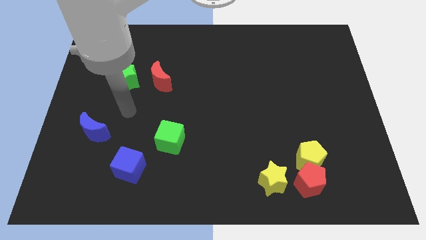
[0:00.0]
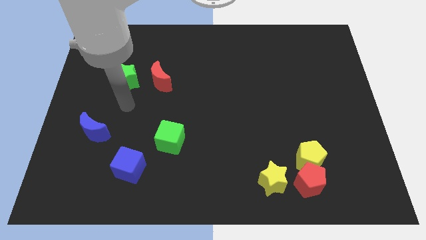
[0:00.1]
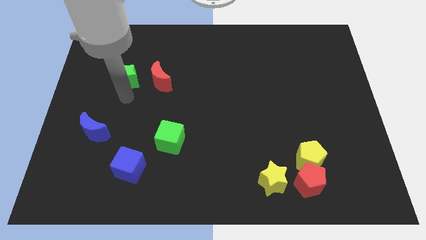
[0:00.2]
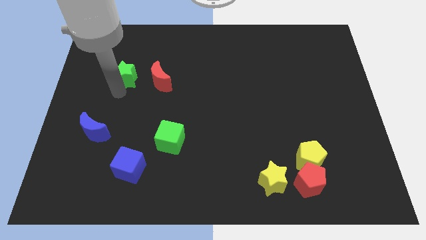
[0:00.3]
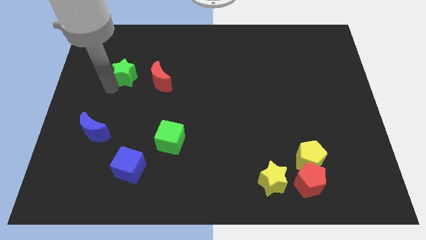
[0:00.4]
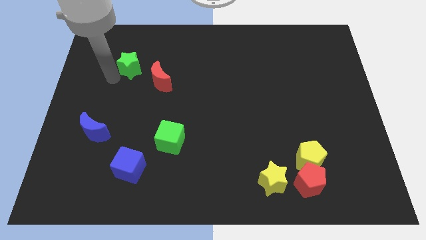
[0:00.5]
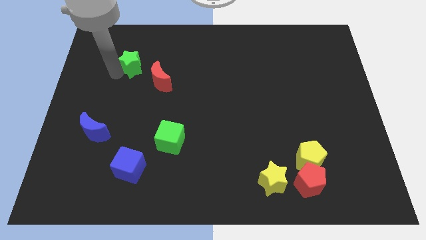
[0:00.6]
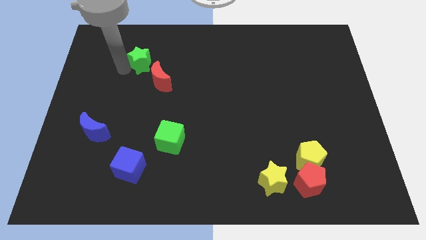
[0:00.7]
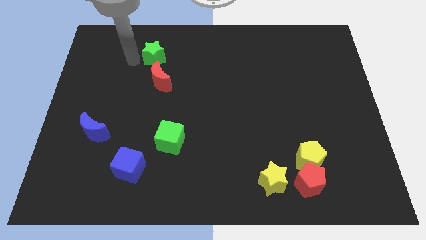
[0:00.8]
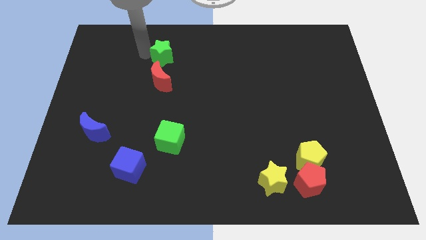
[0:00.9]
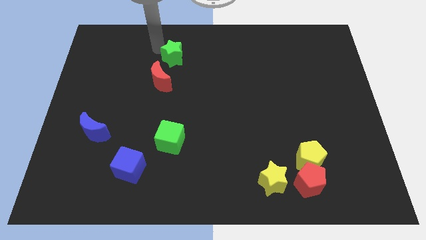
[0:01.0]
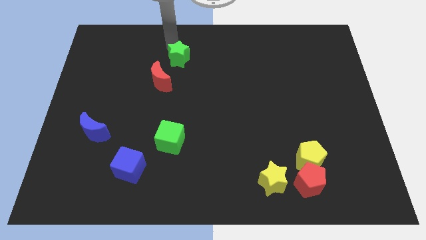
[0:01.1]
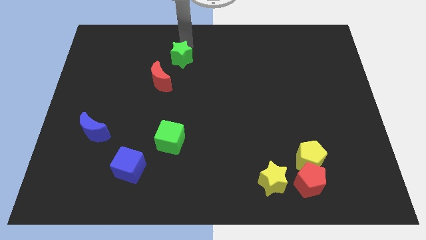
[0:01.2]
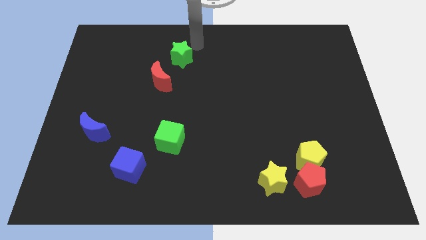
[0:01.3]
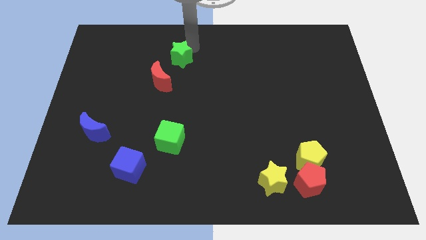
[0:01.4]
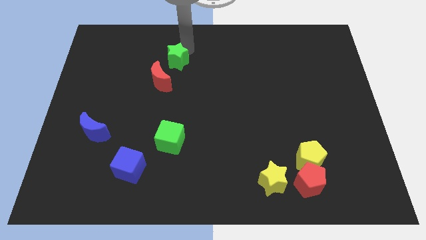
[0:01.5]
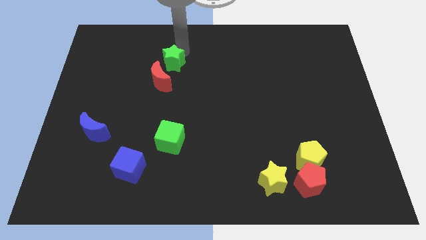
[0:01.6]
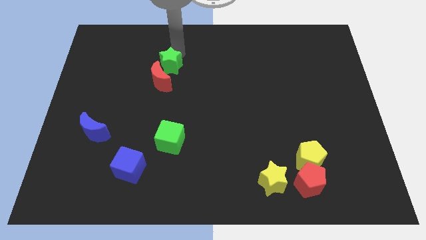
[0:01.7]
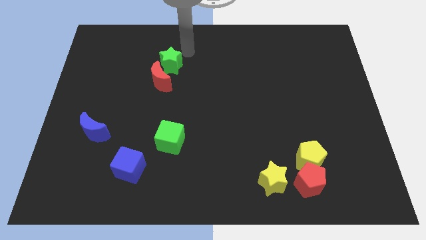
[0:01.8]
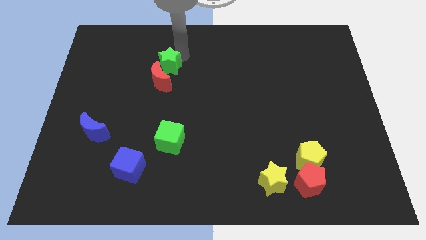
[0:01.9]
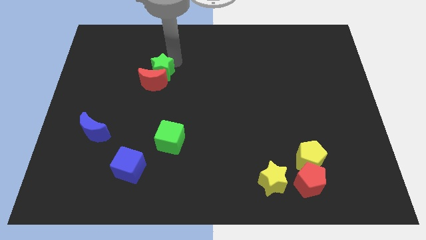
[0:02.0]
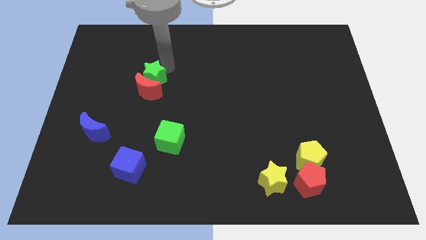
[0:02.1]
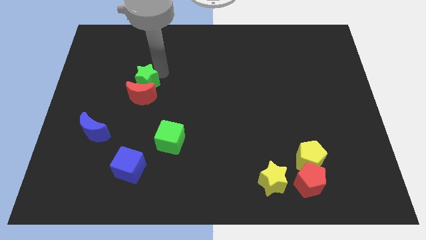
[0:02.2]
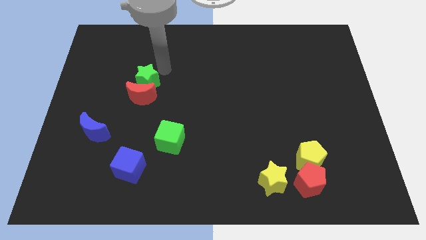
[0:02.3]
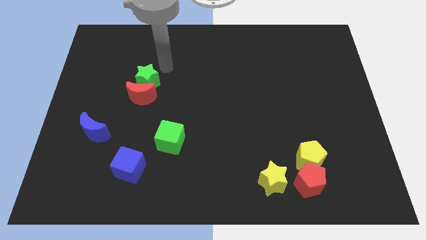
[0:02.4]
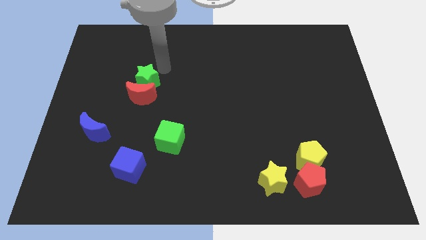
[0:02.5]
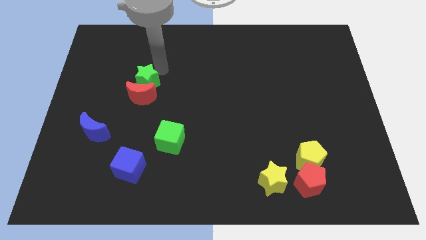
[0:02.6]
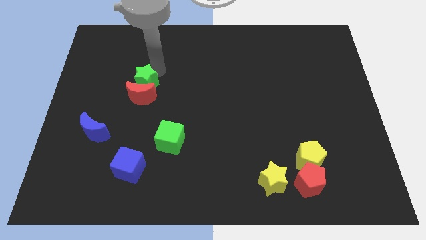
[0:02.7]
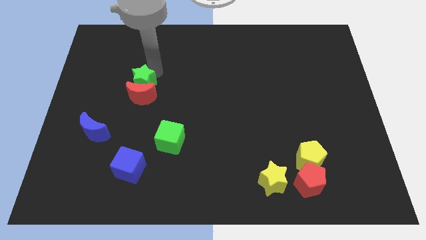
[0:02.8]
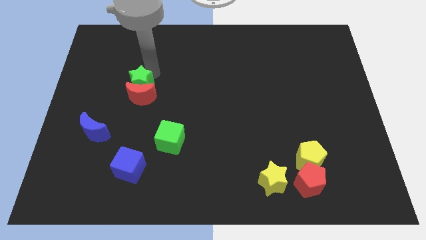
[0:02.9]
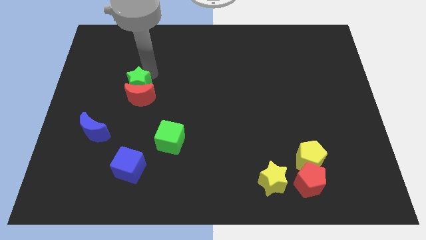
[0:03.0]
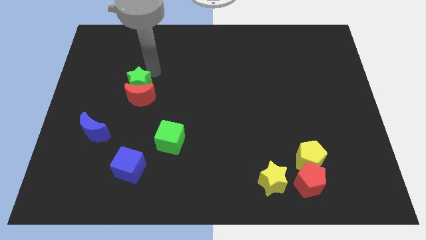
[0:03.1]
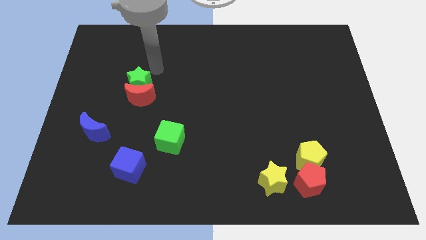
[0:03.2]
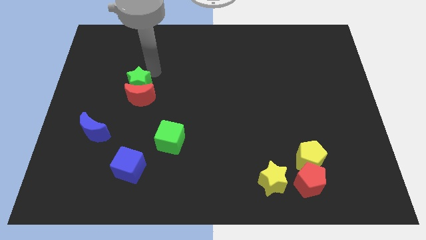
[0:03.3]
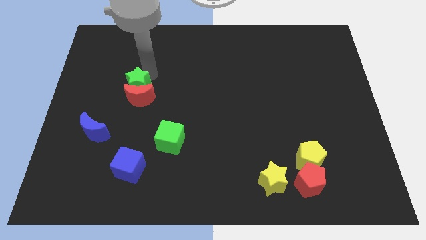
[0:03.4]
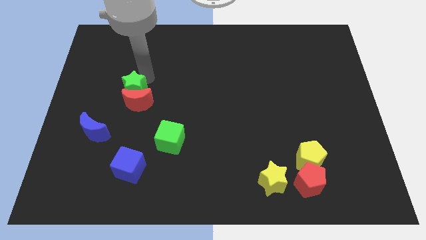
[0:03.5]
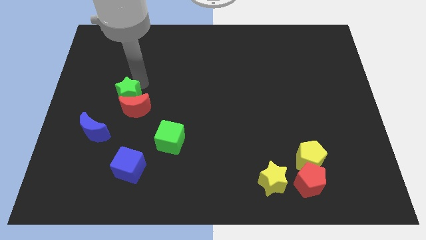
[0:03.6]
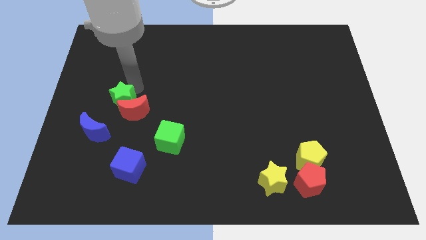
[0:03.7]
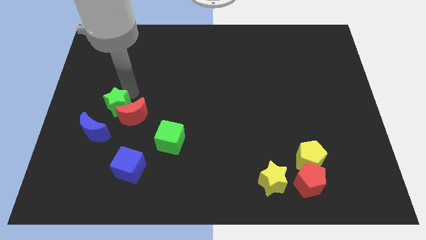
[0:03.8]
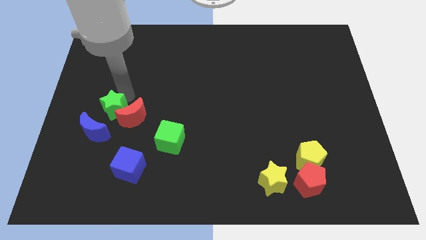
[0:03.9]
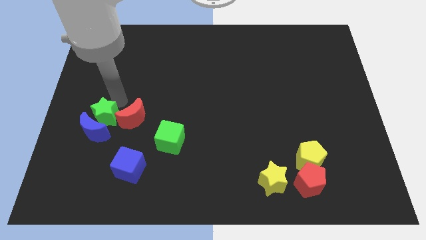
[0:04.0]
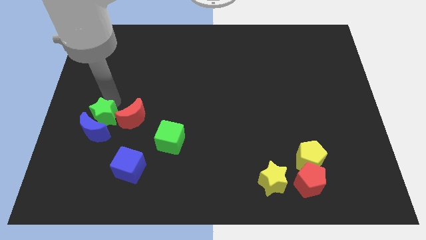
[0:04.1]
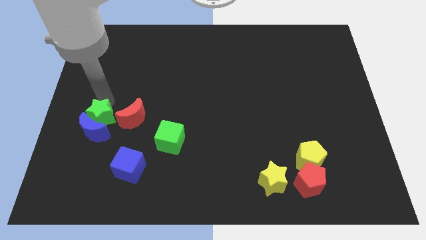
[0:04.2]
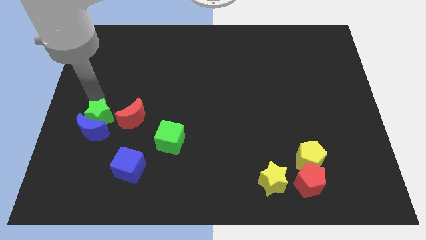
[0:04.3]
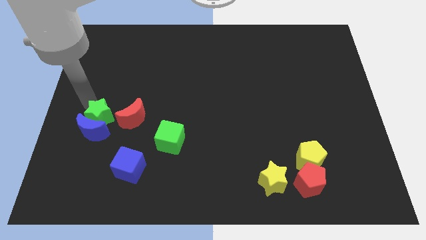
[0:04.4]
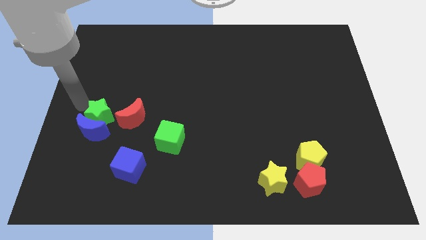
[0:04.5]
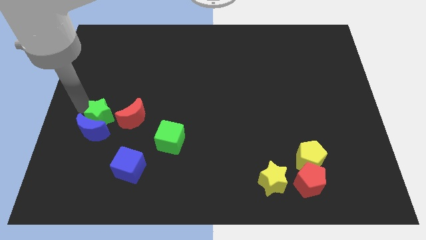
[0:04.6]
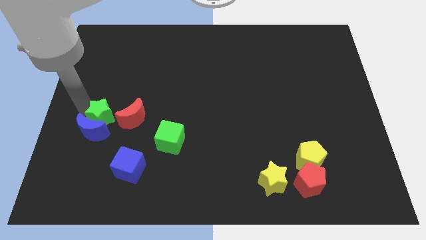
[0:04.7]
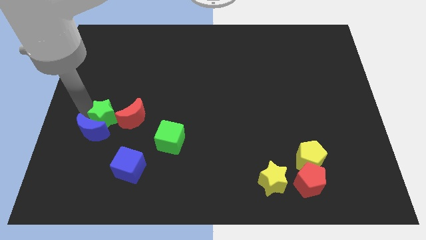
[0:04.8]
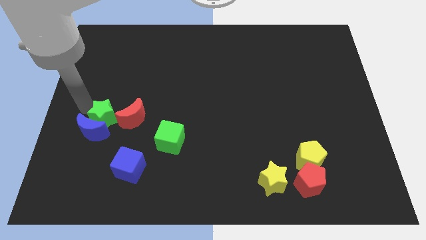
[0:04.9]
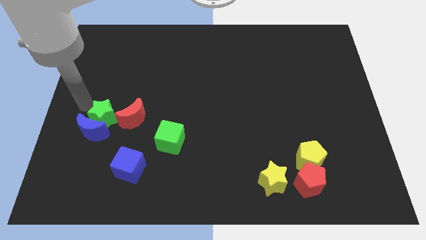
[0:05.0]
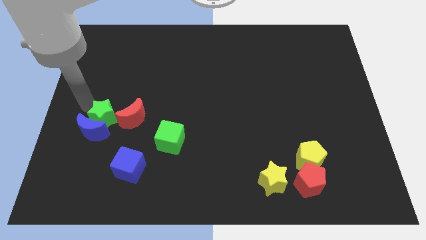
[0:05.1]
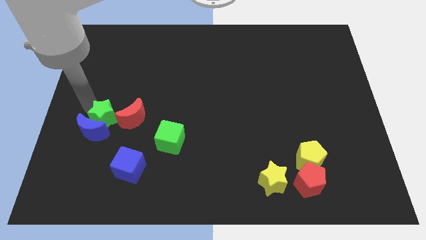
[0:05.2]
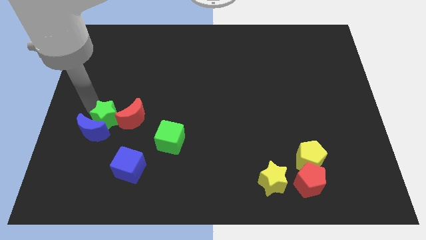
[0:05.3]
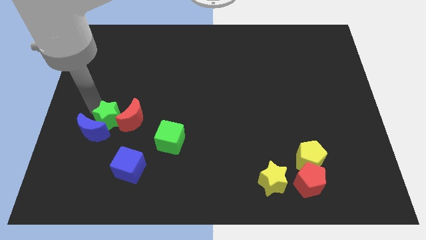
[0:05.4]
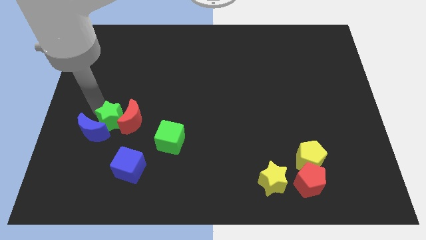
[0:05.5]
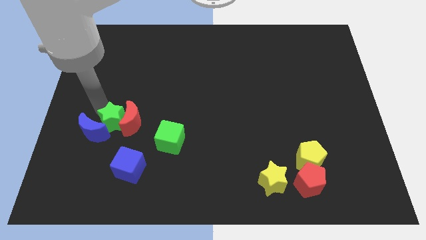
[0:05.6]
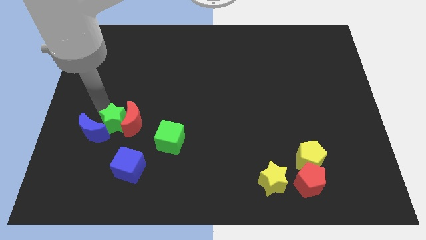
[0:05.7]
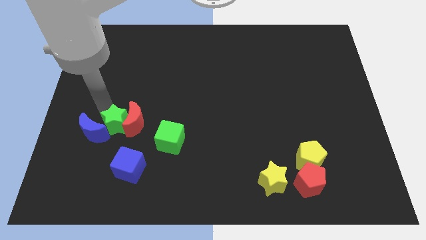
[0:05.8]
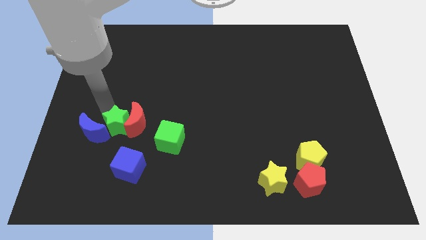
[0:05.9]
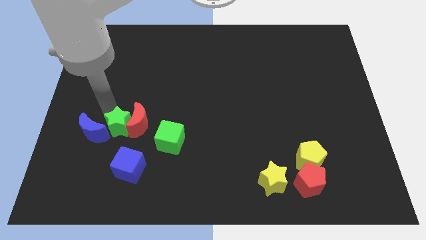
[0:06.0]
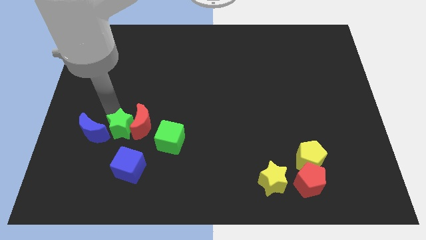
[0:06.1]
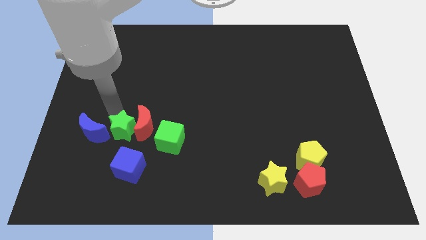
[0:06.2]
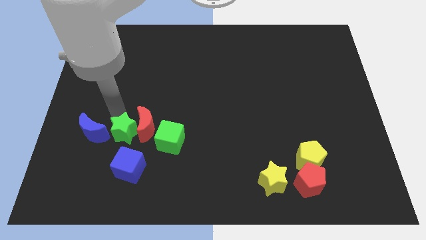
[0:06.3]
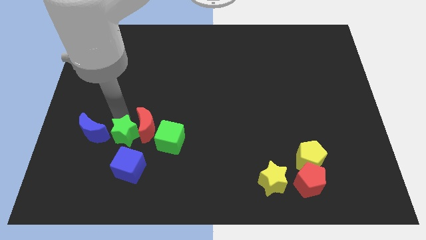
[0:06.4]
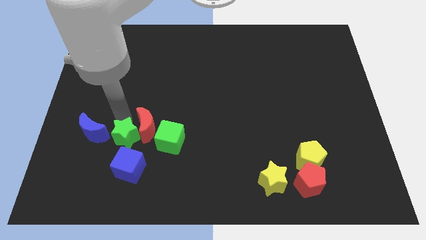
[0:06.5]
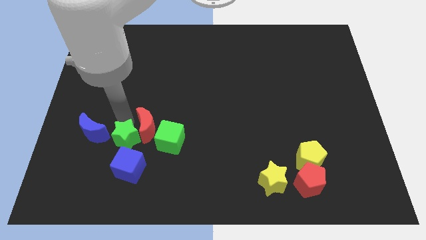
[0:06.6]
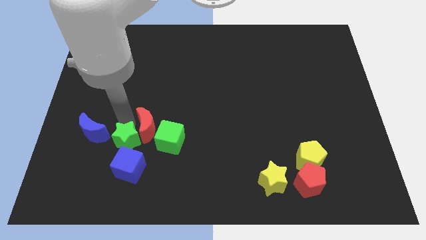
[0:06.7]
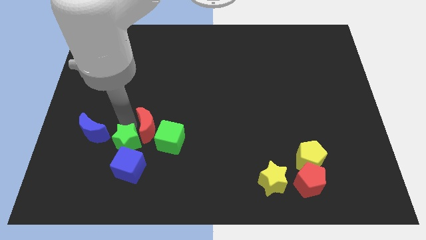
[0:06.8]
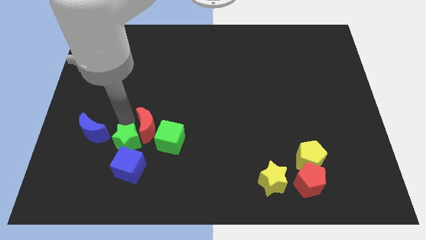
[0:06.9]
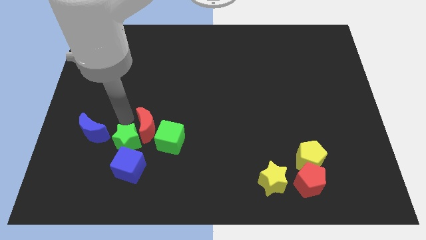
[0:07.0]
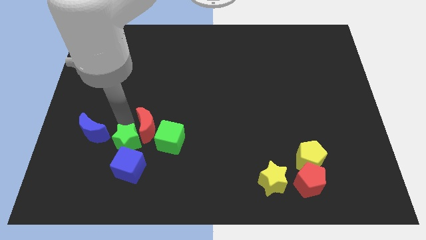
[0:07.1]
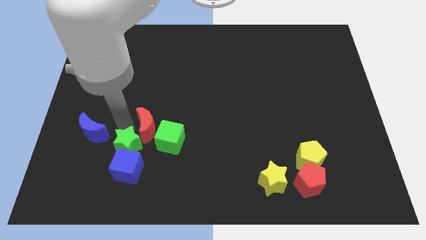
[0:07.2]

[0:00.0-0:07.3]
slide the green star to the blue cube
